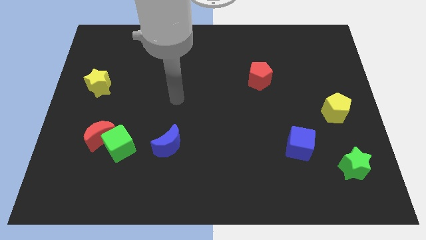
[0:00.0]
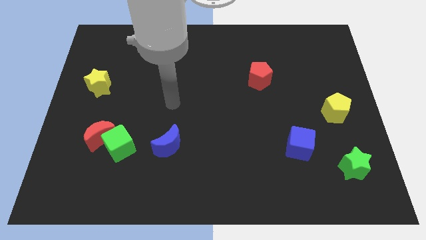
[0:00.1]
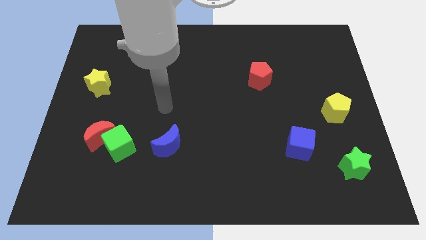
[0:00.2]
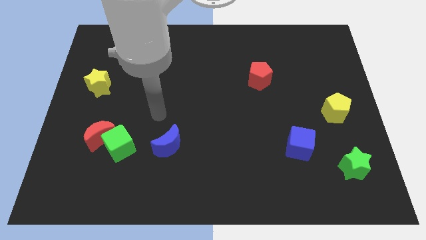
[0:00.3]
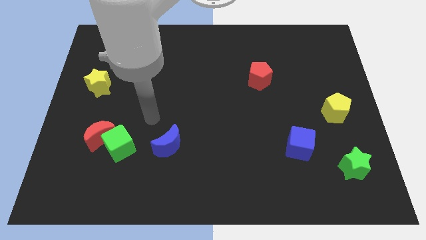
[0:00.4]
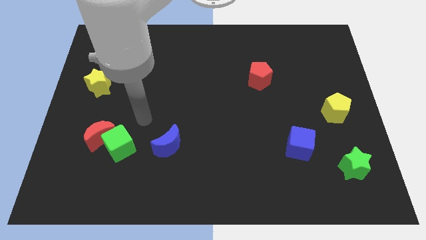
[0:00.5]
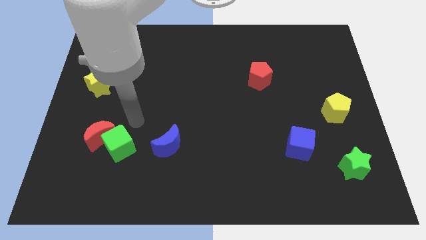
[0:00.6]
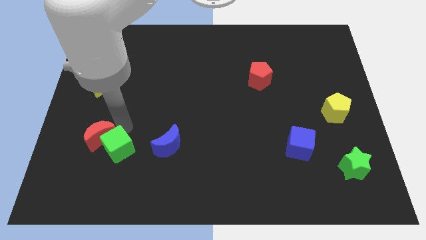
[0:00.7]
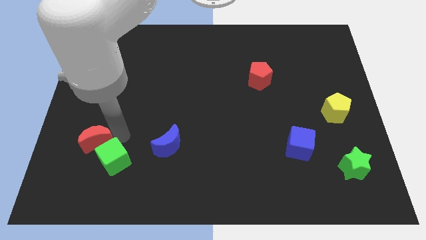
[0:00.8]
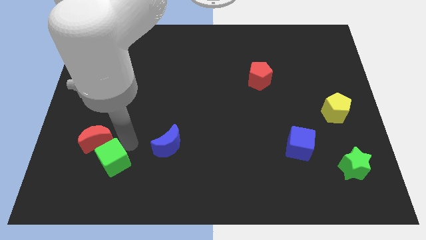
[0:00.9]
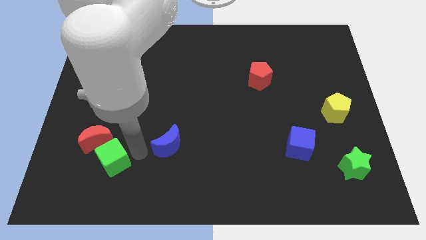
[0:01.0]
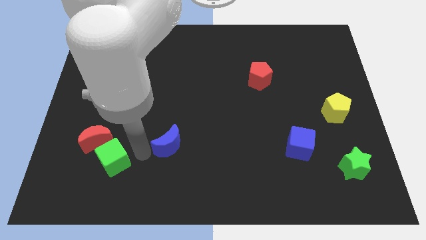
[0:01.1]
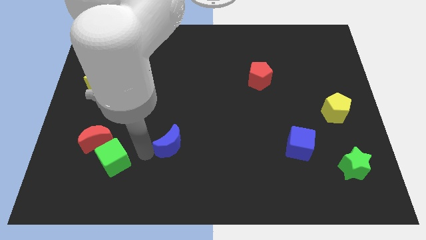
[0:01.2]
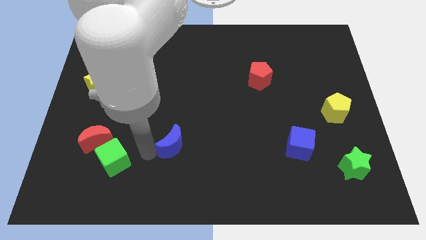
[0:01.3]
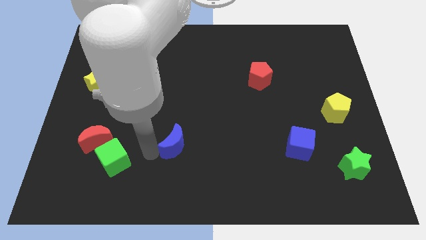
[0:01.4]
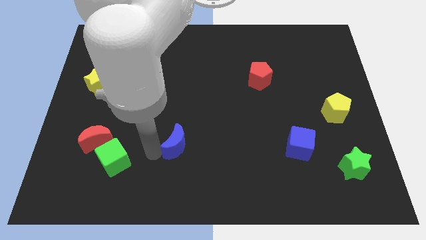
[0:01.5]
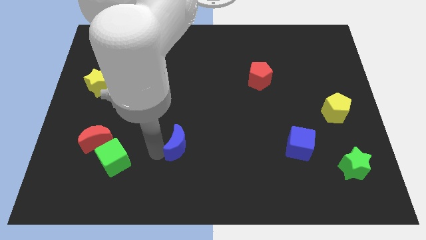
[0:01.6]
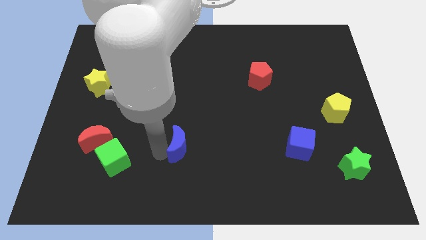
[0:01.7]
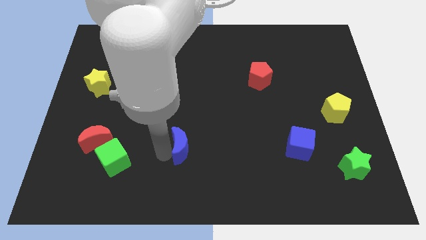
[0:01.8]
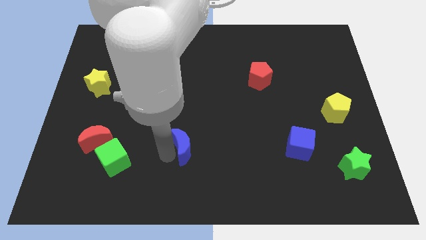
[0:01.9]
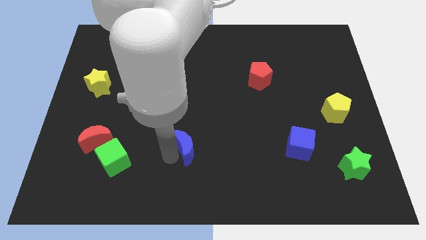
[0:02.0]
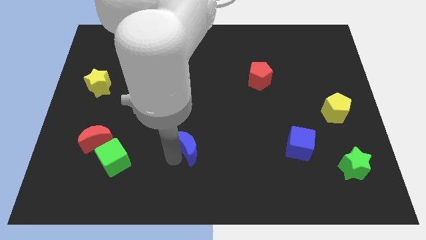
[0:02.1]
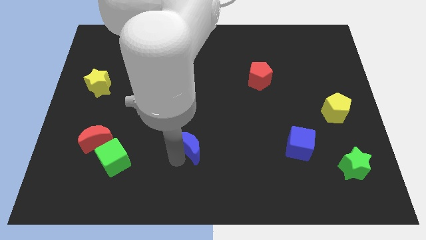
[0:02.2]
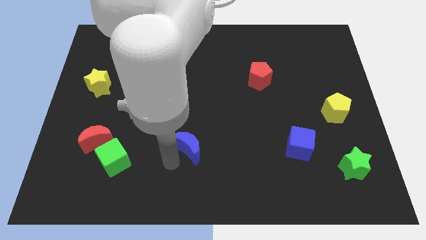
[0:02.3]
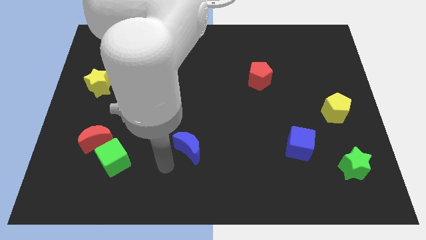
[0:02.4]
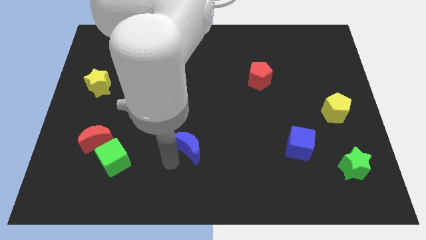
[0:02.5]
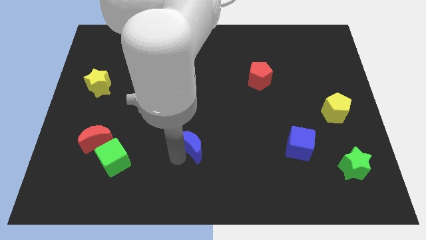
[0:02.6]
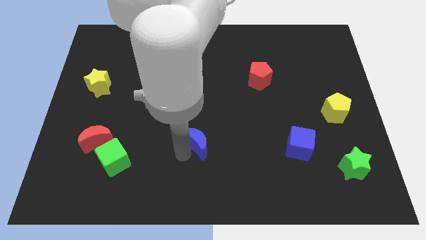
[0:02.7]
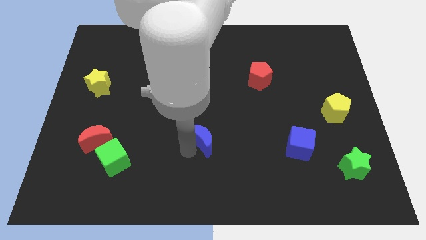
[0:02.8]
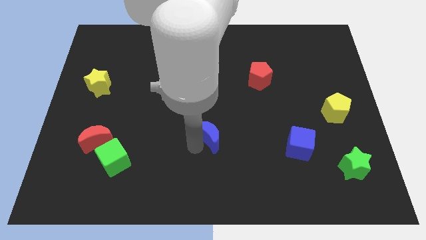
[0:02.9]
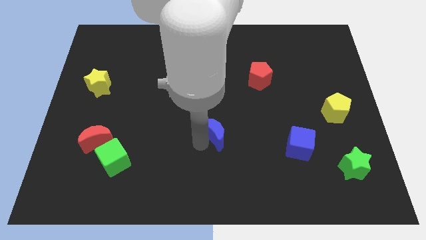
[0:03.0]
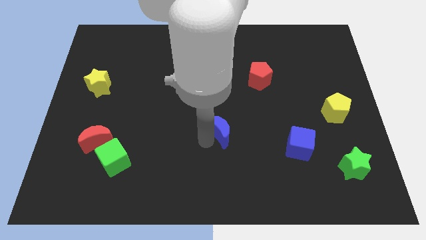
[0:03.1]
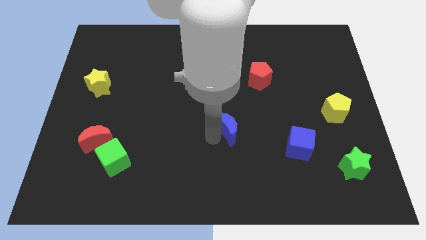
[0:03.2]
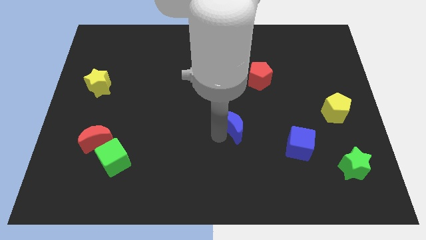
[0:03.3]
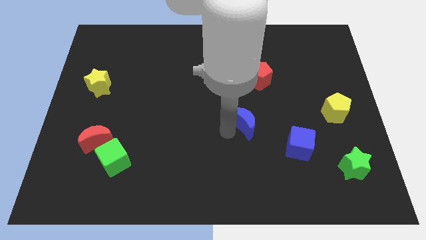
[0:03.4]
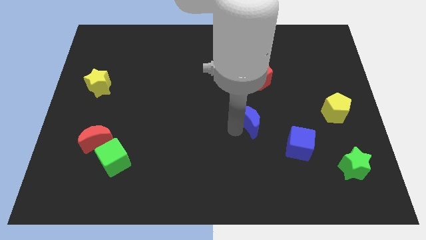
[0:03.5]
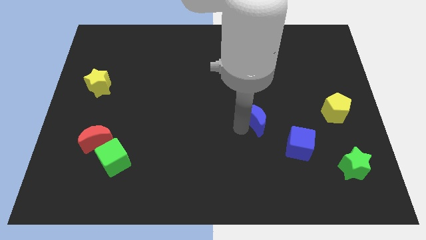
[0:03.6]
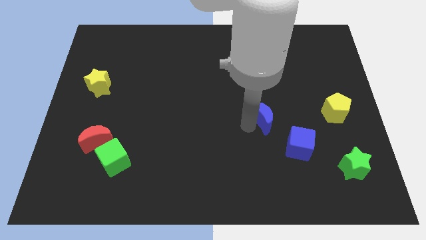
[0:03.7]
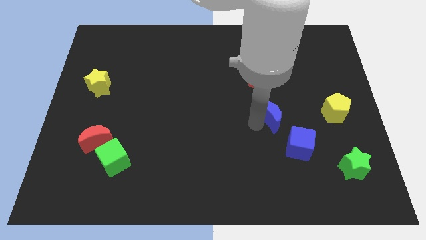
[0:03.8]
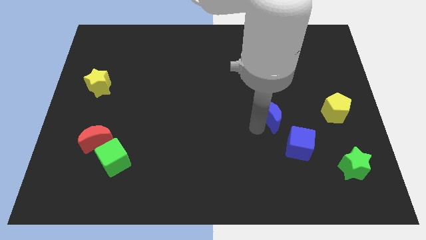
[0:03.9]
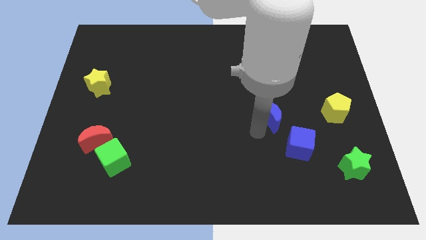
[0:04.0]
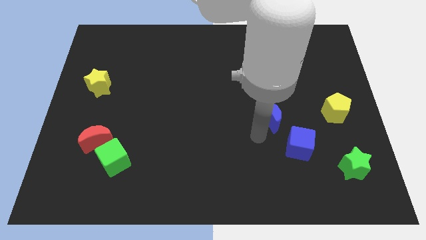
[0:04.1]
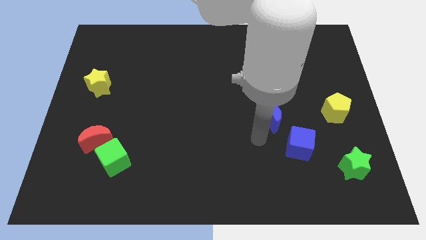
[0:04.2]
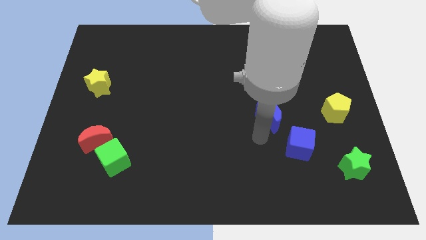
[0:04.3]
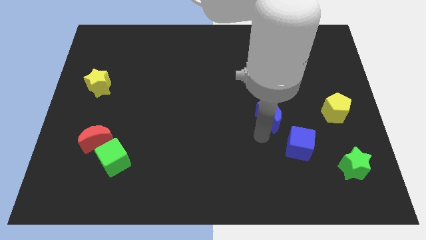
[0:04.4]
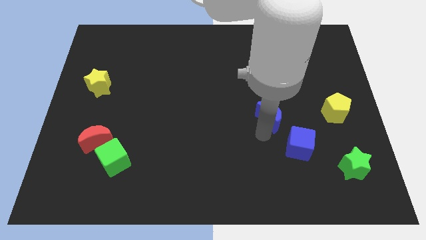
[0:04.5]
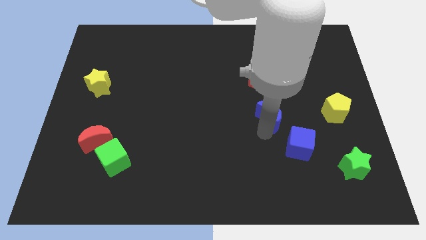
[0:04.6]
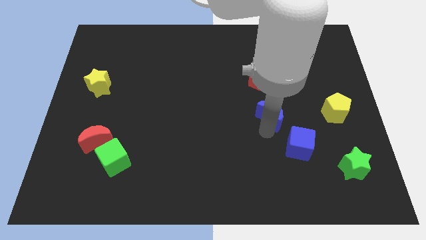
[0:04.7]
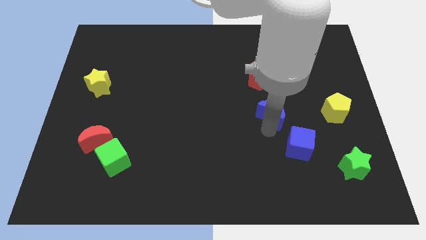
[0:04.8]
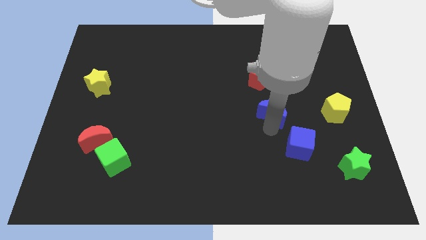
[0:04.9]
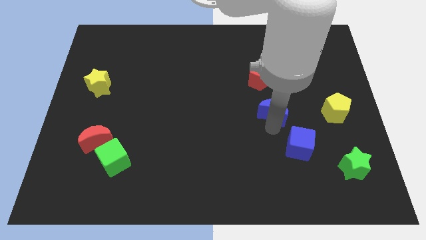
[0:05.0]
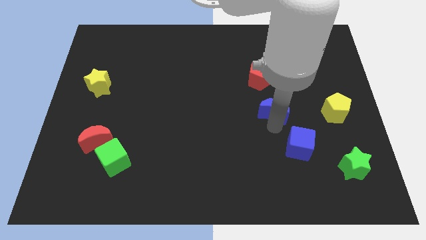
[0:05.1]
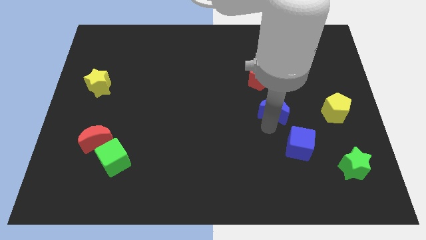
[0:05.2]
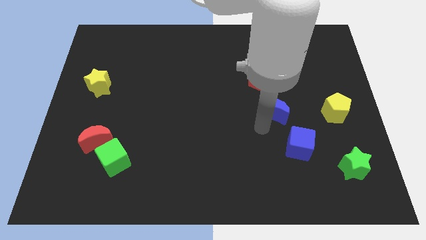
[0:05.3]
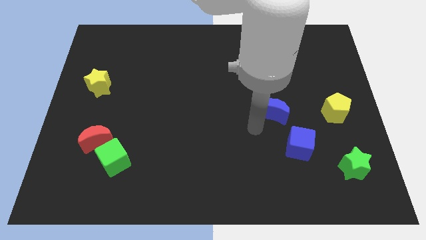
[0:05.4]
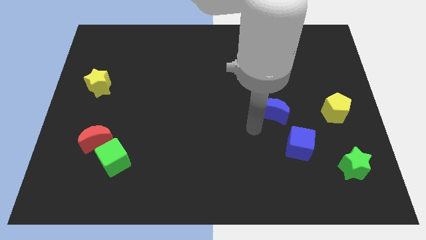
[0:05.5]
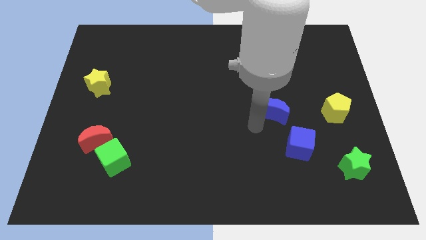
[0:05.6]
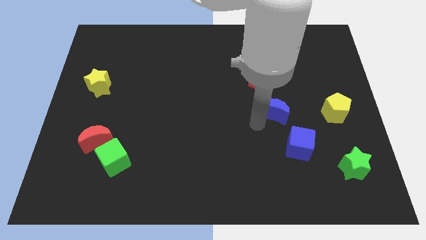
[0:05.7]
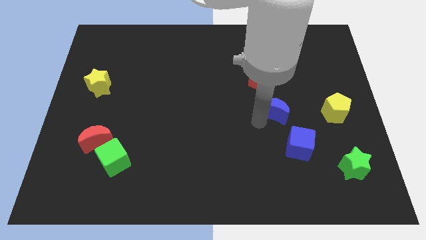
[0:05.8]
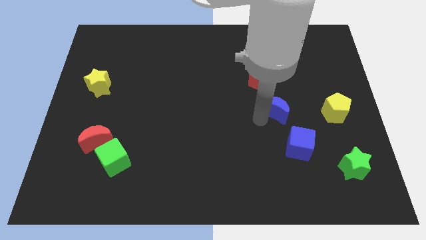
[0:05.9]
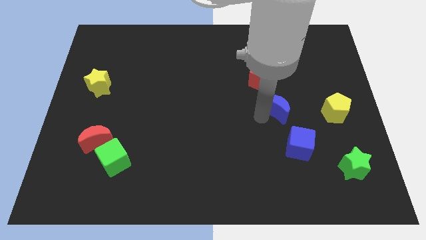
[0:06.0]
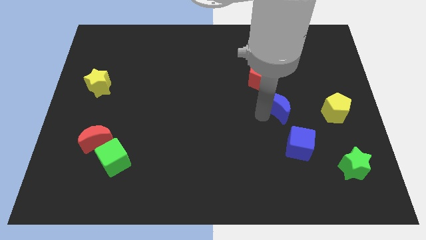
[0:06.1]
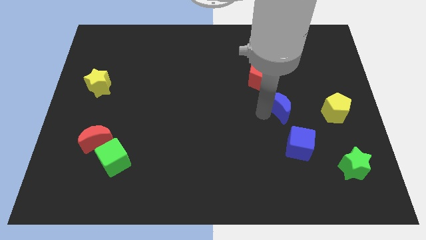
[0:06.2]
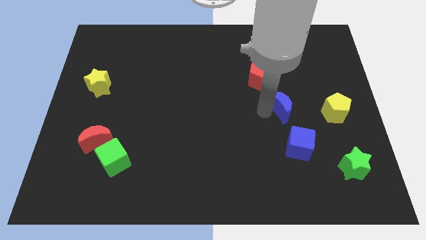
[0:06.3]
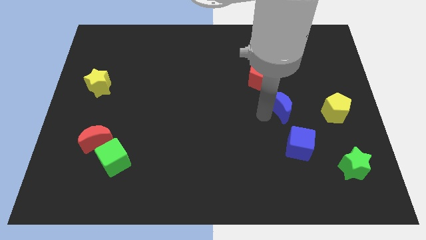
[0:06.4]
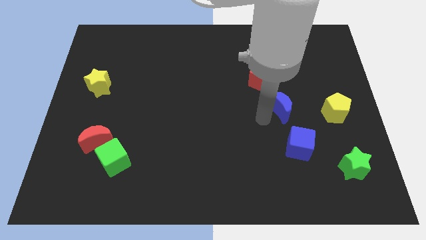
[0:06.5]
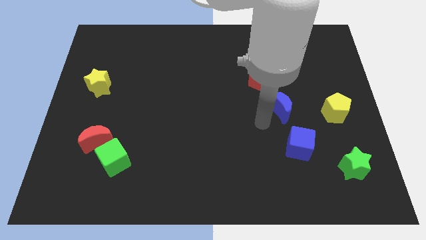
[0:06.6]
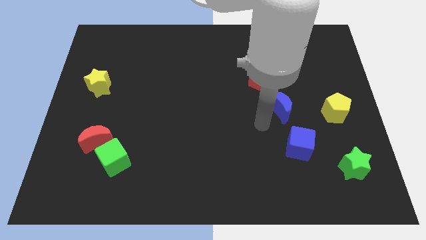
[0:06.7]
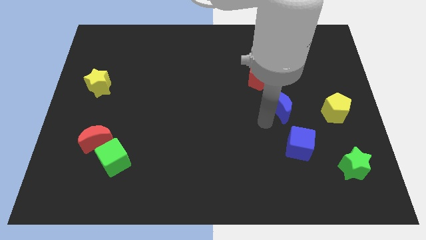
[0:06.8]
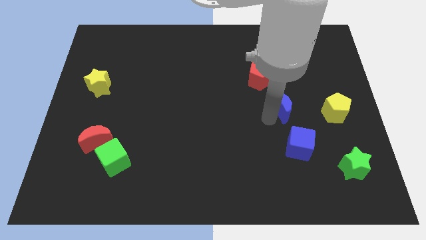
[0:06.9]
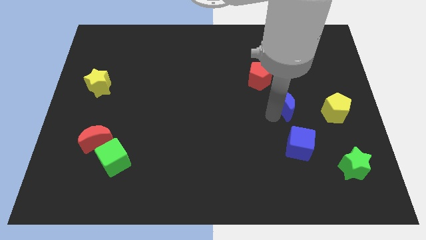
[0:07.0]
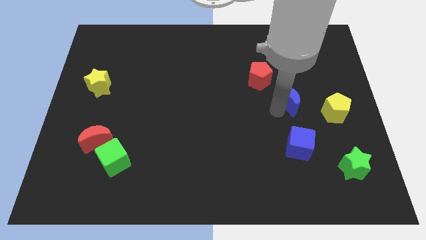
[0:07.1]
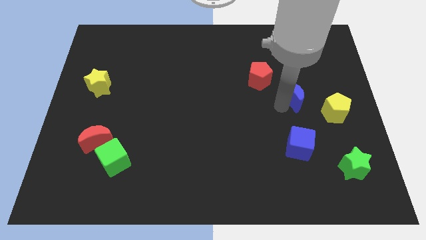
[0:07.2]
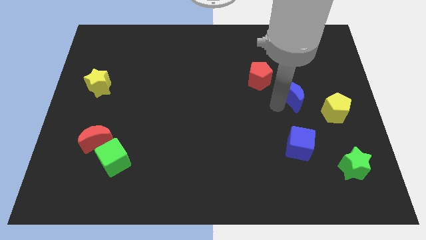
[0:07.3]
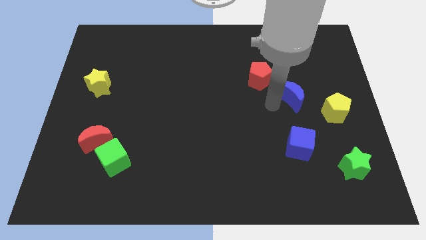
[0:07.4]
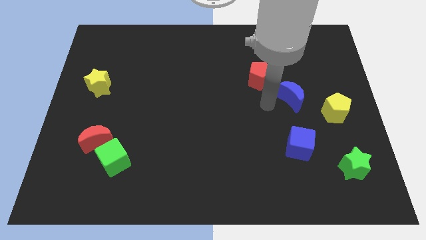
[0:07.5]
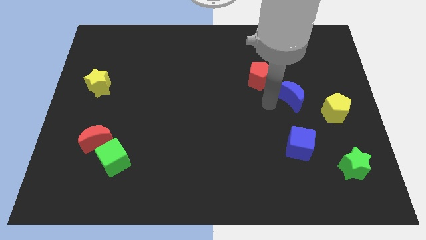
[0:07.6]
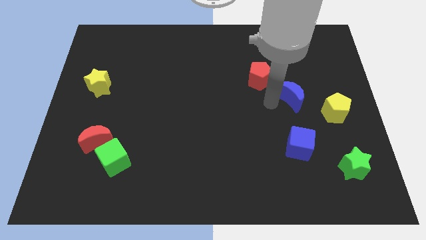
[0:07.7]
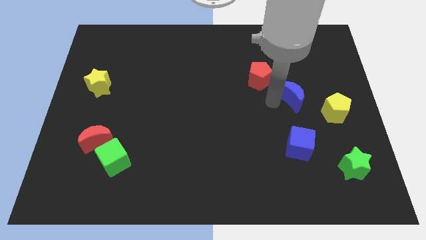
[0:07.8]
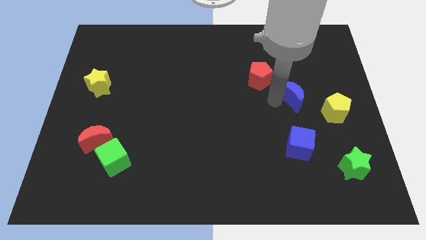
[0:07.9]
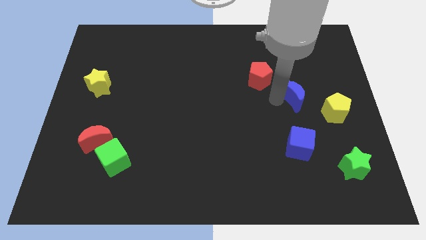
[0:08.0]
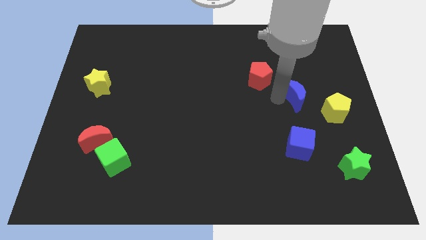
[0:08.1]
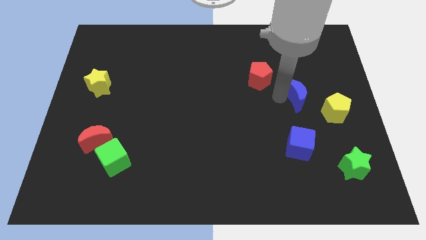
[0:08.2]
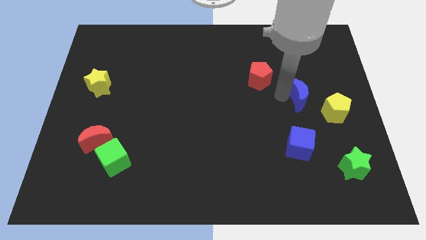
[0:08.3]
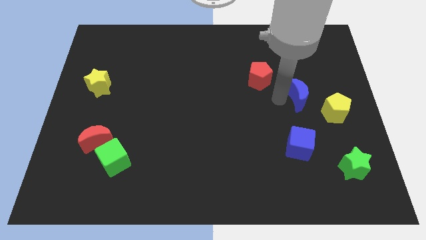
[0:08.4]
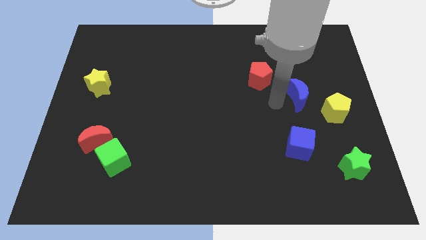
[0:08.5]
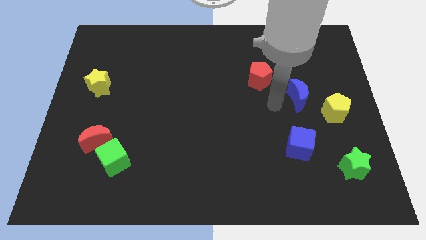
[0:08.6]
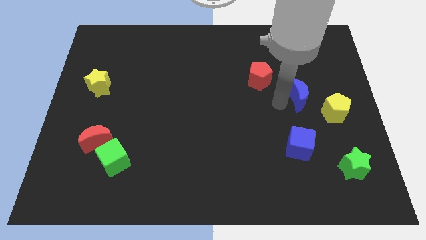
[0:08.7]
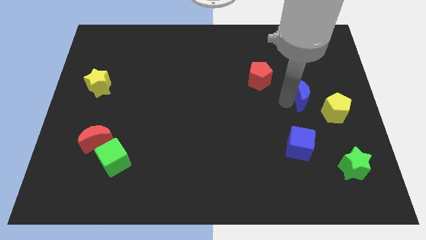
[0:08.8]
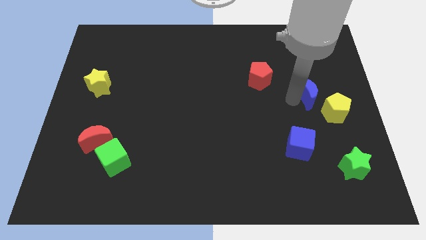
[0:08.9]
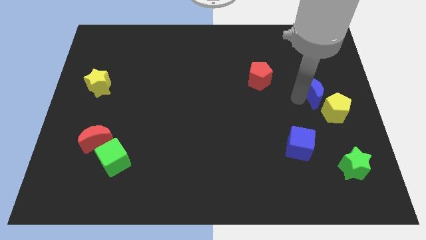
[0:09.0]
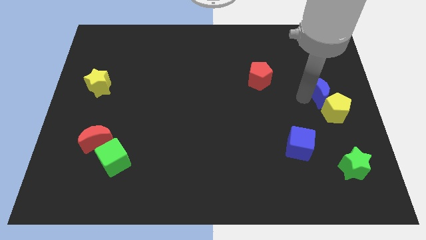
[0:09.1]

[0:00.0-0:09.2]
put the blue moon to the center right
